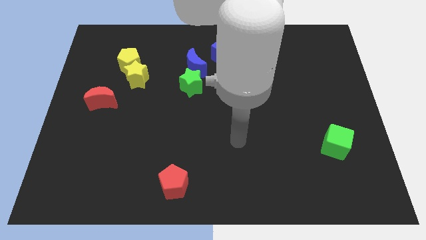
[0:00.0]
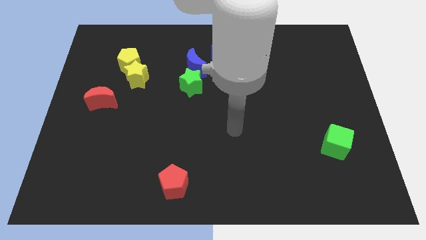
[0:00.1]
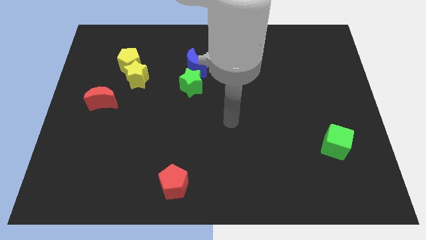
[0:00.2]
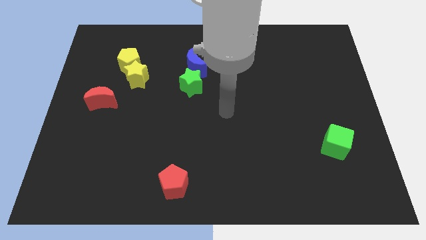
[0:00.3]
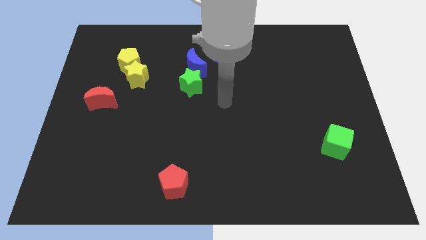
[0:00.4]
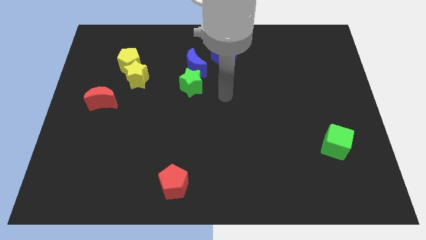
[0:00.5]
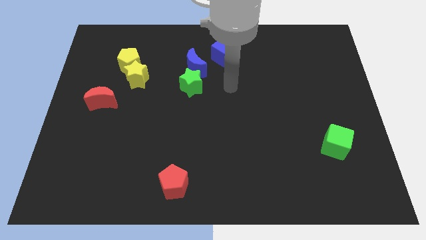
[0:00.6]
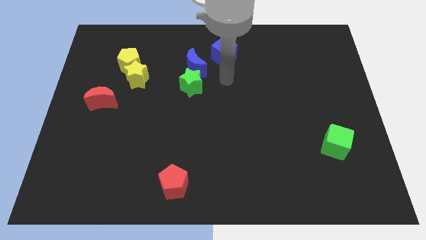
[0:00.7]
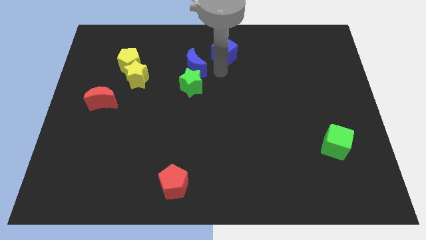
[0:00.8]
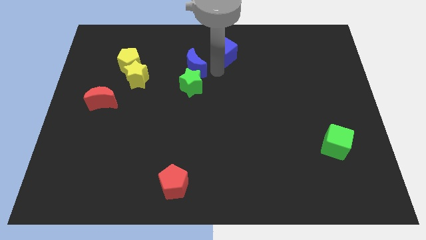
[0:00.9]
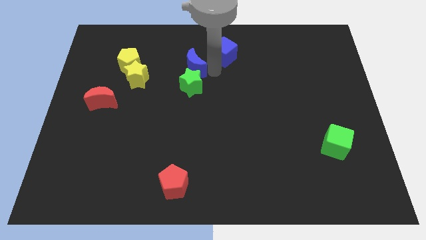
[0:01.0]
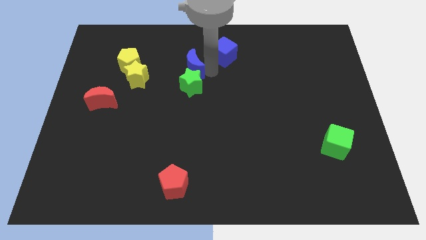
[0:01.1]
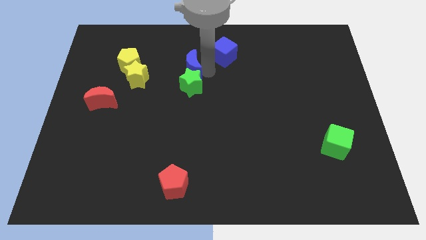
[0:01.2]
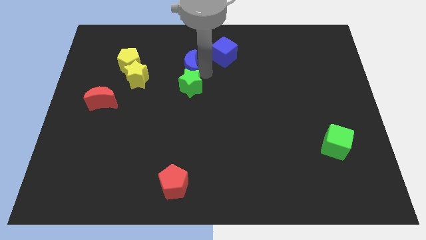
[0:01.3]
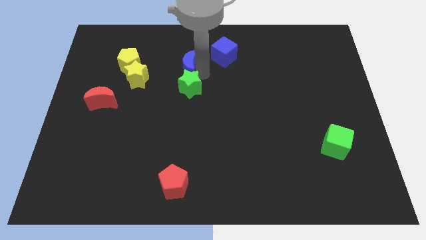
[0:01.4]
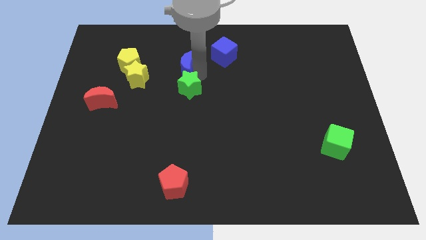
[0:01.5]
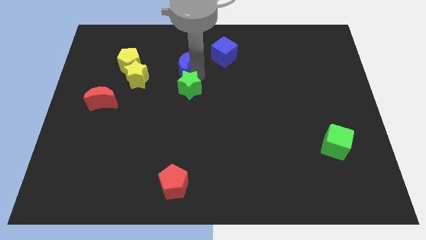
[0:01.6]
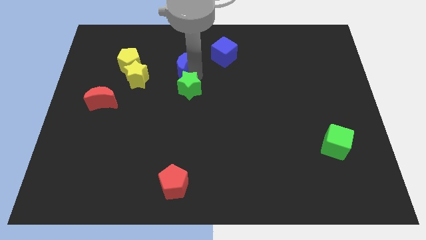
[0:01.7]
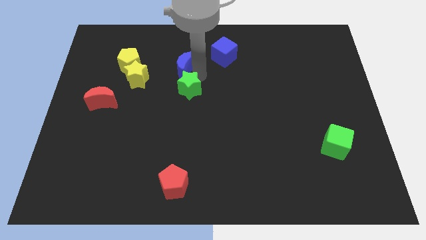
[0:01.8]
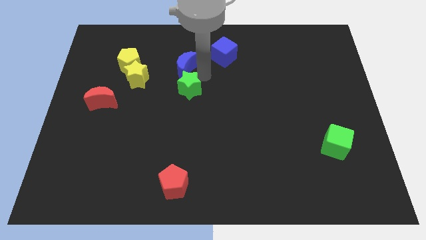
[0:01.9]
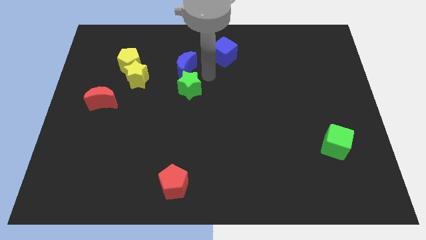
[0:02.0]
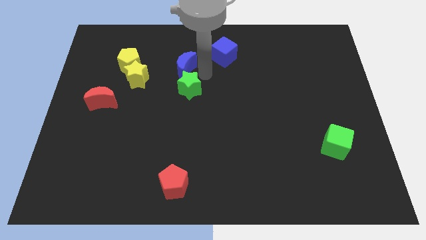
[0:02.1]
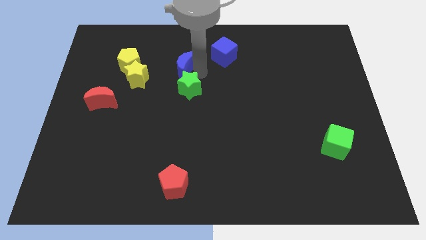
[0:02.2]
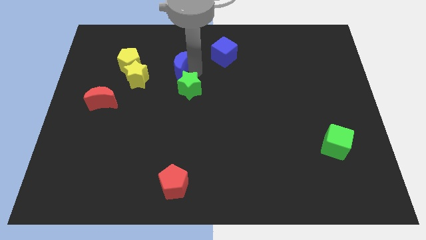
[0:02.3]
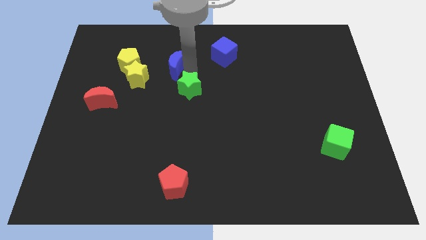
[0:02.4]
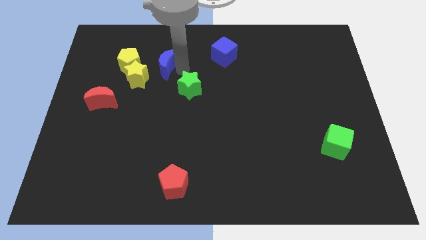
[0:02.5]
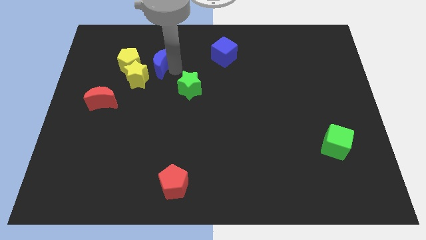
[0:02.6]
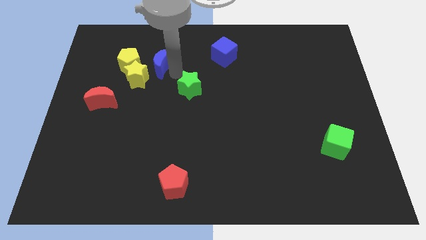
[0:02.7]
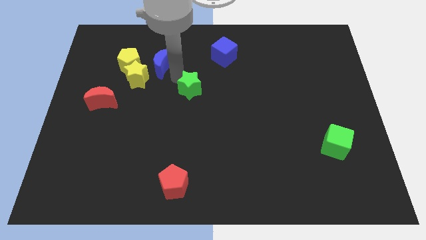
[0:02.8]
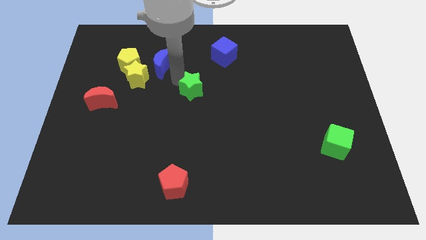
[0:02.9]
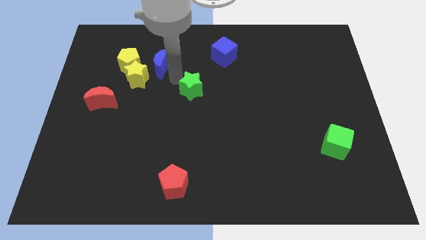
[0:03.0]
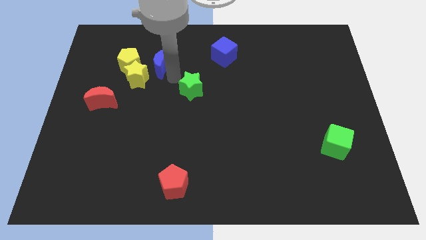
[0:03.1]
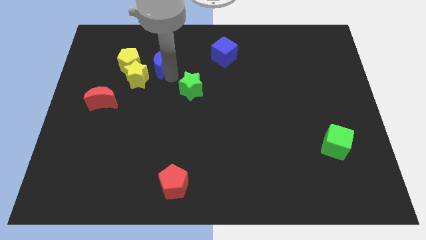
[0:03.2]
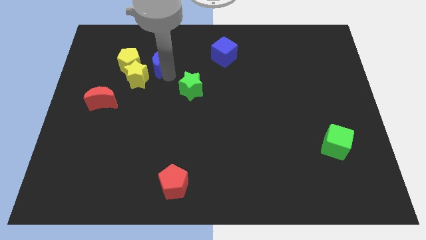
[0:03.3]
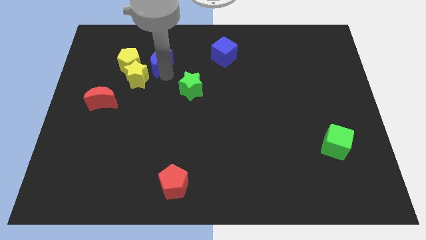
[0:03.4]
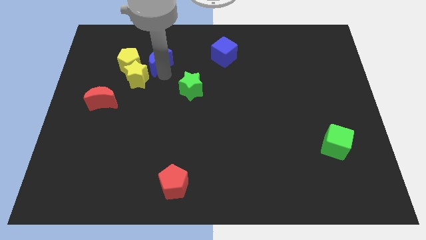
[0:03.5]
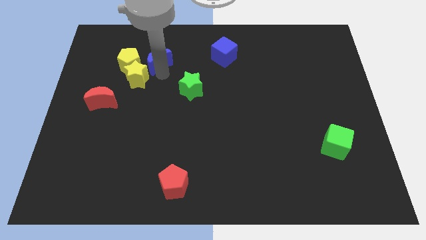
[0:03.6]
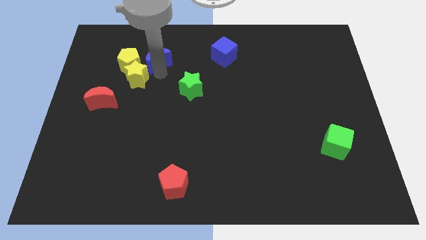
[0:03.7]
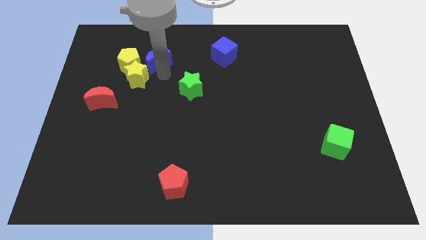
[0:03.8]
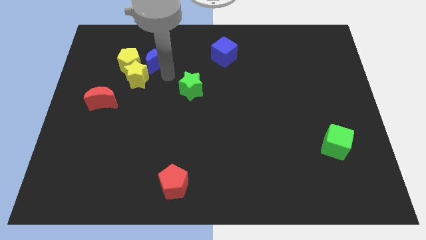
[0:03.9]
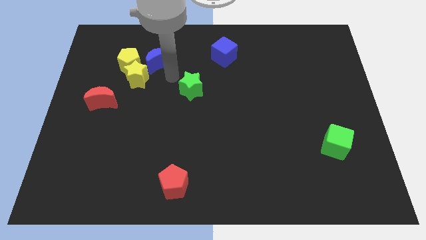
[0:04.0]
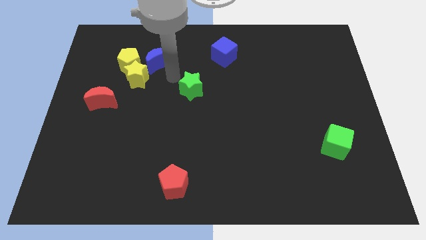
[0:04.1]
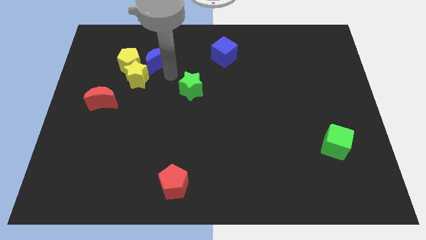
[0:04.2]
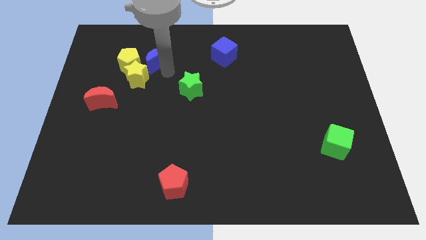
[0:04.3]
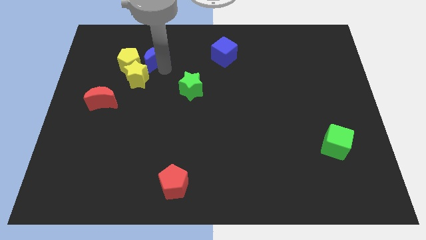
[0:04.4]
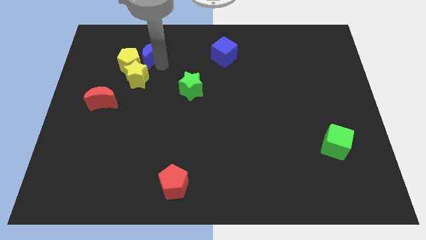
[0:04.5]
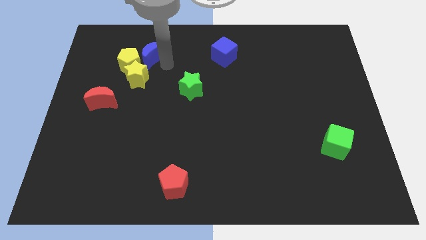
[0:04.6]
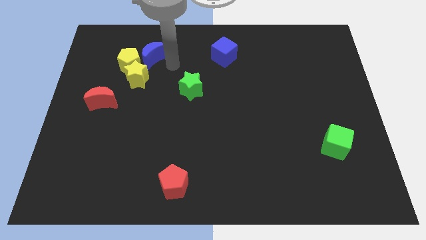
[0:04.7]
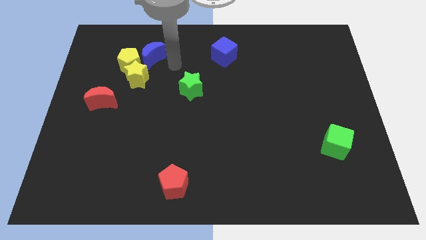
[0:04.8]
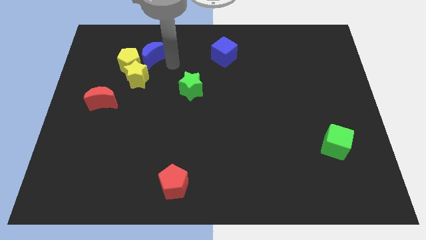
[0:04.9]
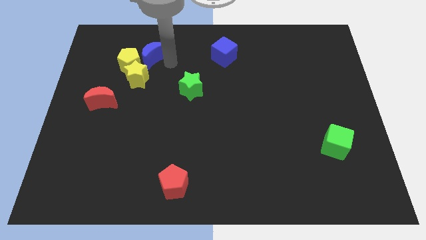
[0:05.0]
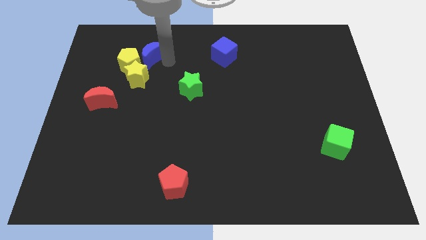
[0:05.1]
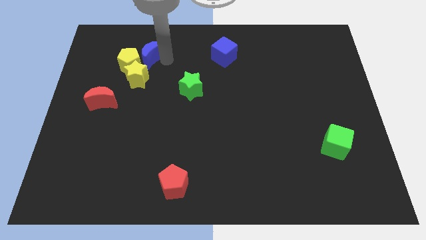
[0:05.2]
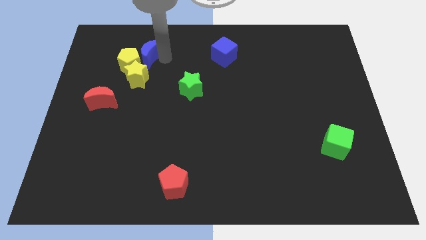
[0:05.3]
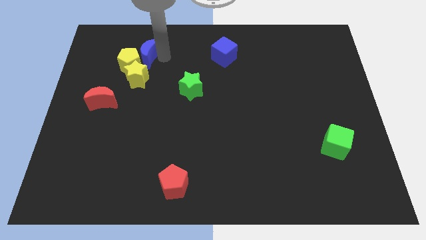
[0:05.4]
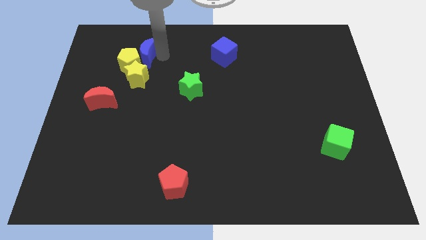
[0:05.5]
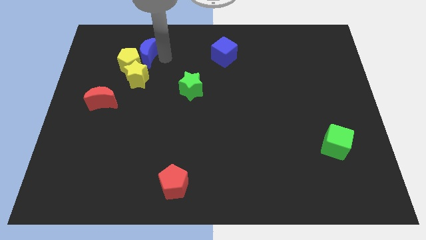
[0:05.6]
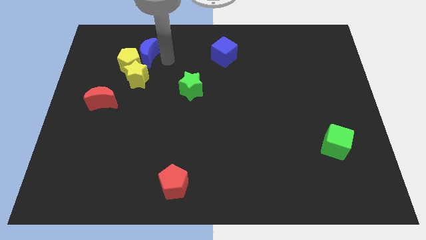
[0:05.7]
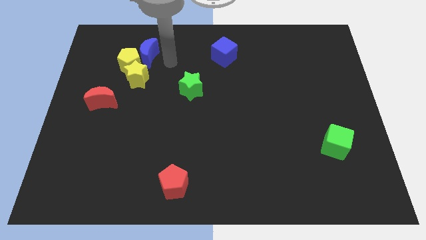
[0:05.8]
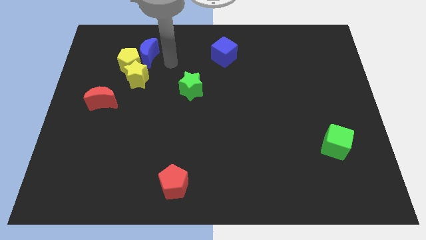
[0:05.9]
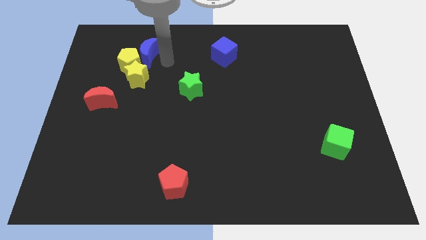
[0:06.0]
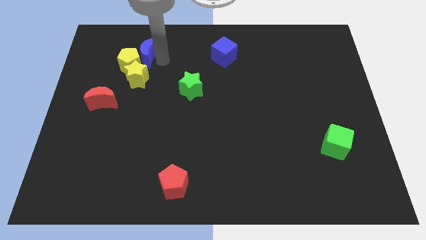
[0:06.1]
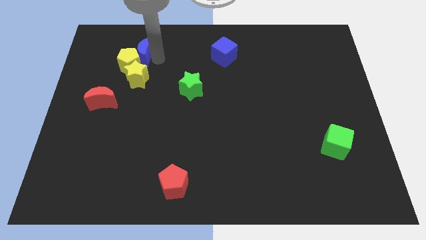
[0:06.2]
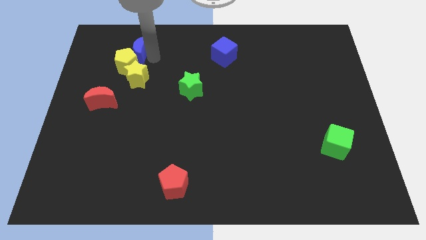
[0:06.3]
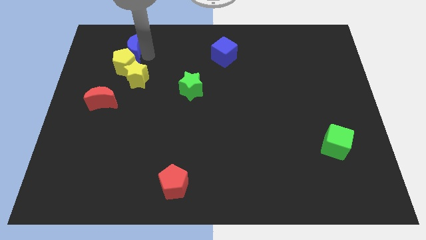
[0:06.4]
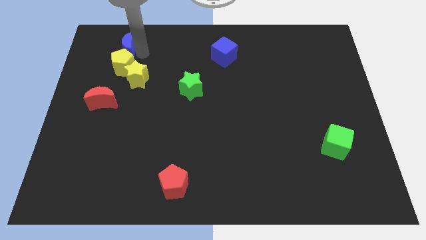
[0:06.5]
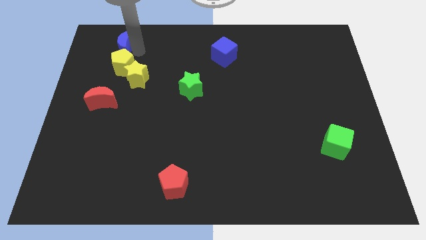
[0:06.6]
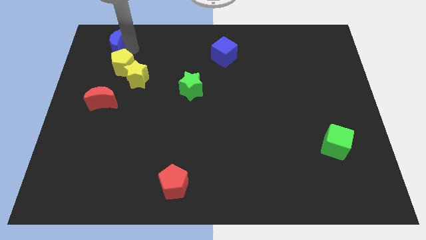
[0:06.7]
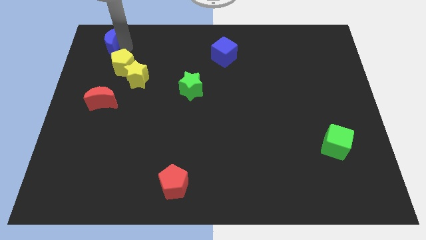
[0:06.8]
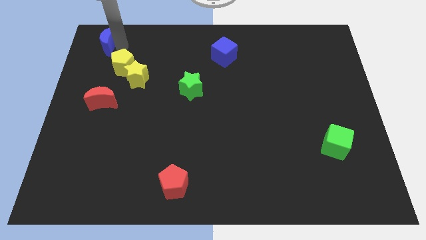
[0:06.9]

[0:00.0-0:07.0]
push the blue moon to the upper left corner

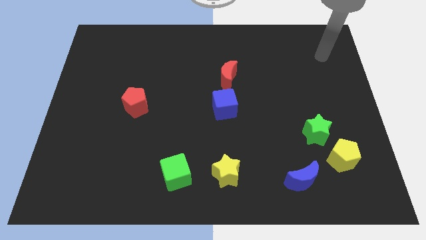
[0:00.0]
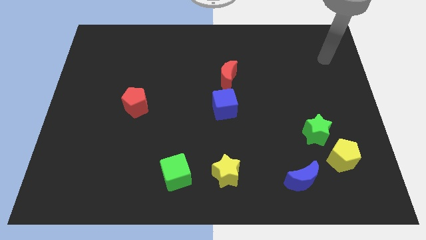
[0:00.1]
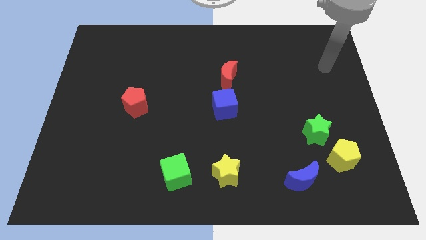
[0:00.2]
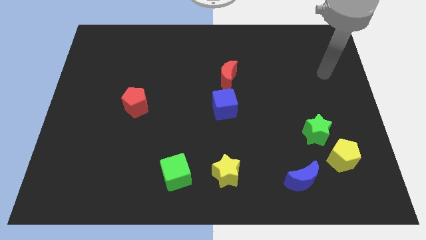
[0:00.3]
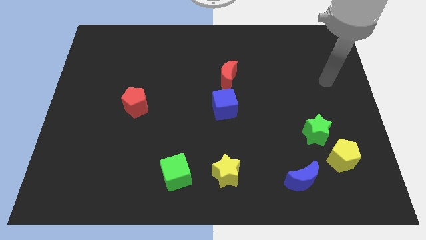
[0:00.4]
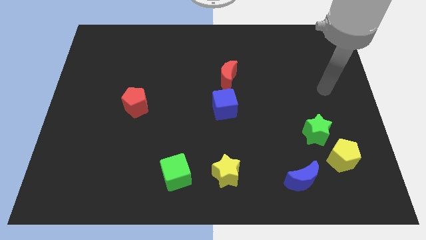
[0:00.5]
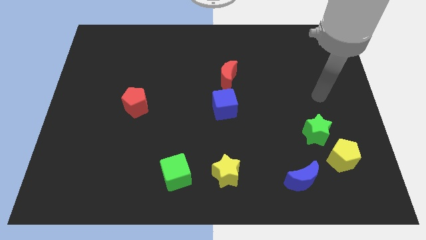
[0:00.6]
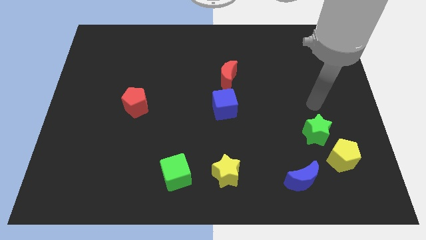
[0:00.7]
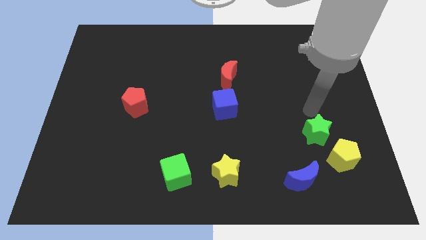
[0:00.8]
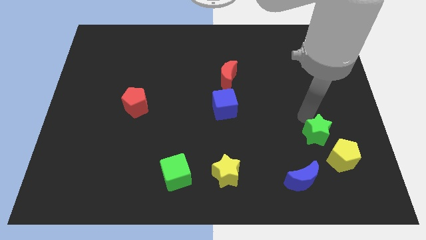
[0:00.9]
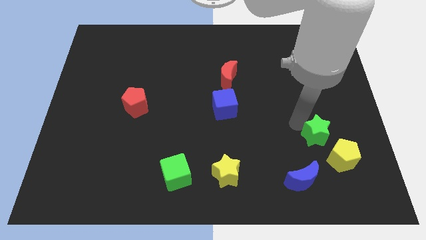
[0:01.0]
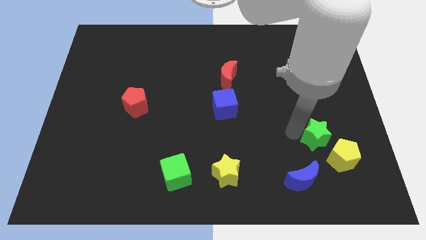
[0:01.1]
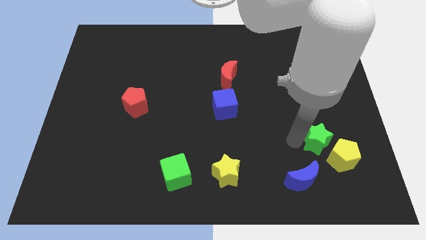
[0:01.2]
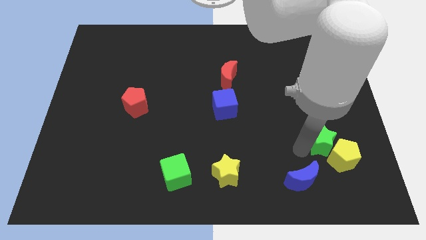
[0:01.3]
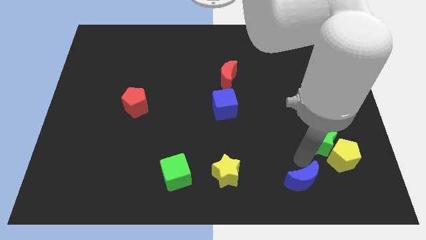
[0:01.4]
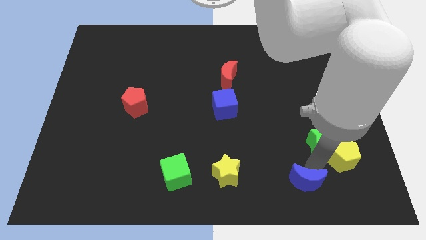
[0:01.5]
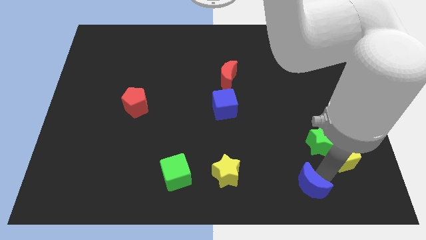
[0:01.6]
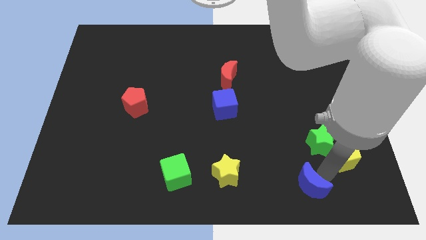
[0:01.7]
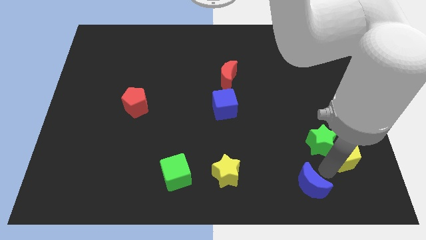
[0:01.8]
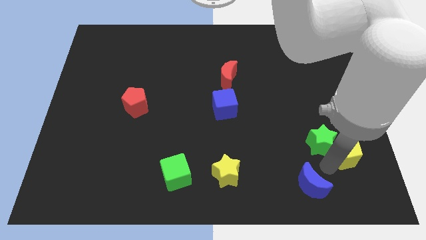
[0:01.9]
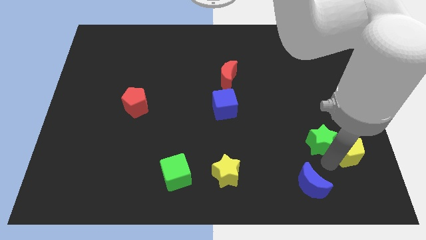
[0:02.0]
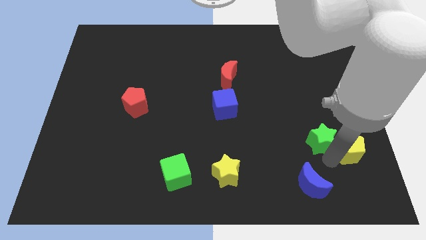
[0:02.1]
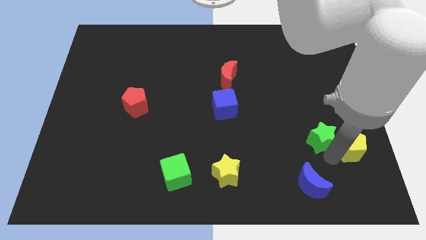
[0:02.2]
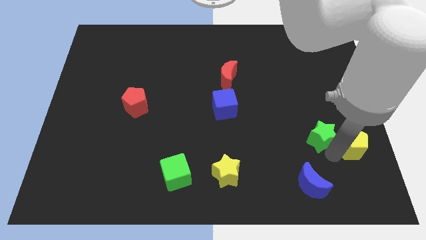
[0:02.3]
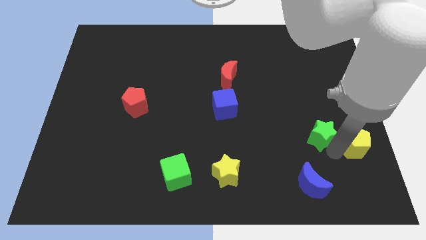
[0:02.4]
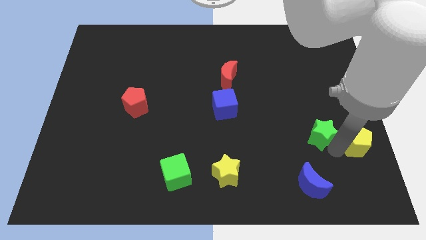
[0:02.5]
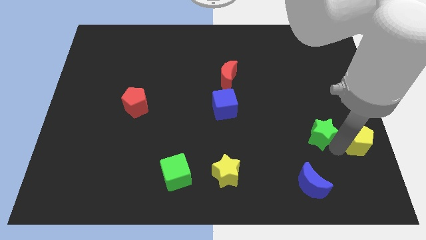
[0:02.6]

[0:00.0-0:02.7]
push the yellow pentagon to the center right
